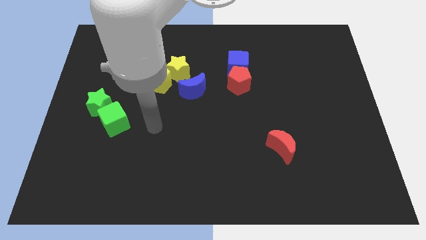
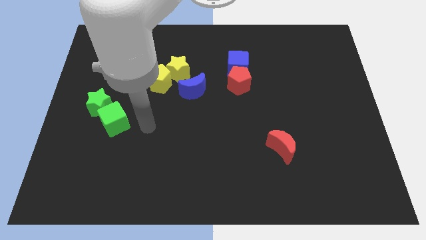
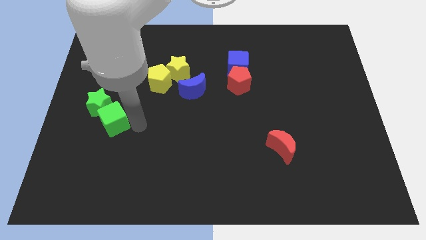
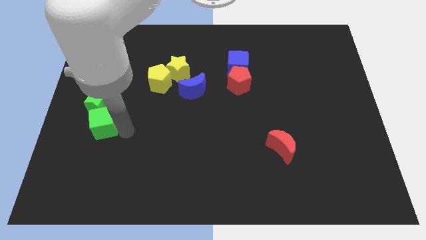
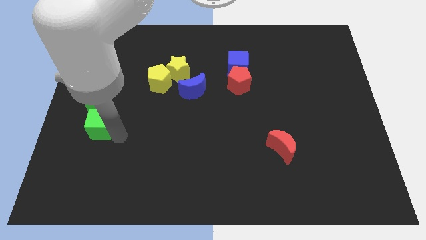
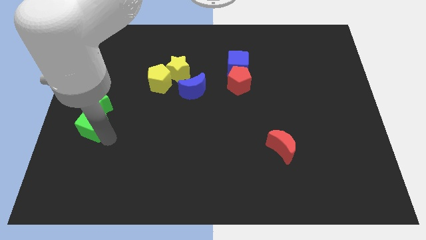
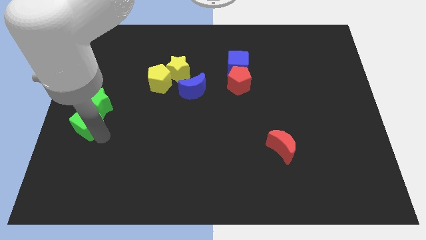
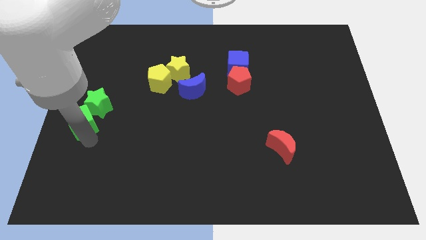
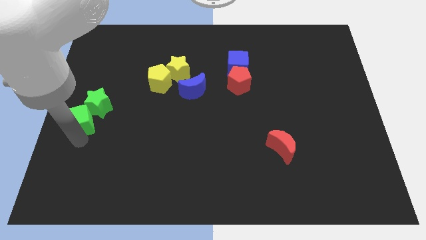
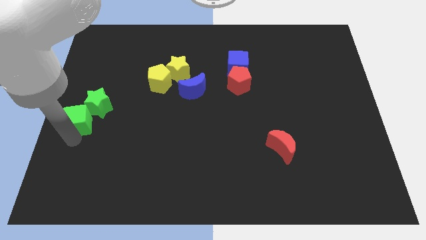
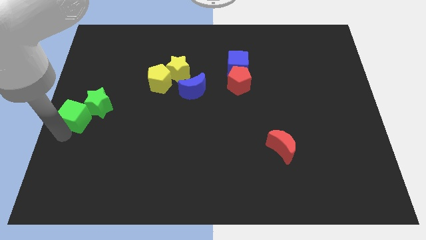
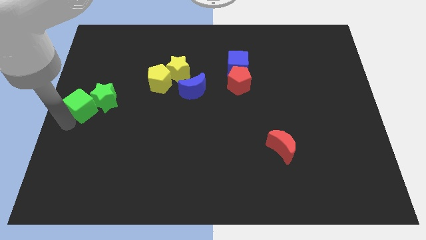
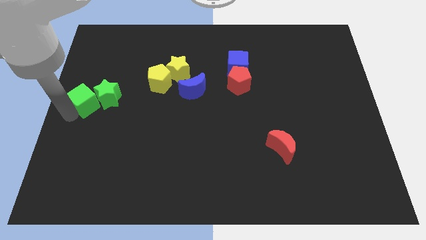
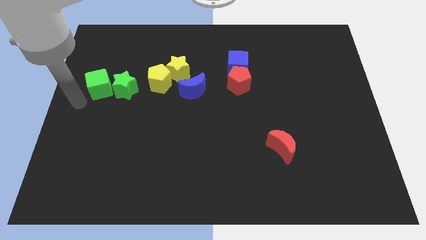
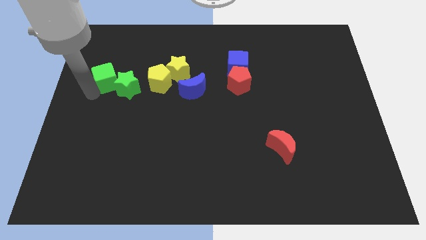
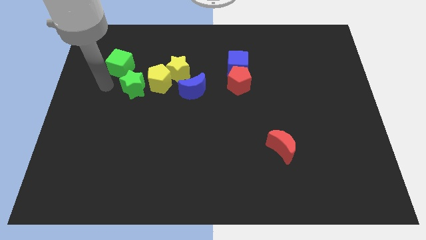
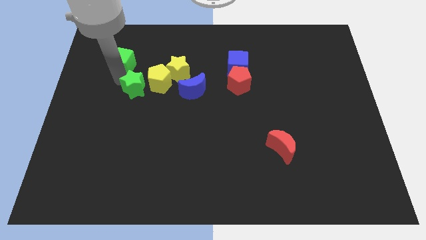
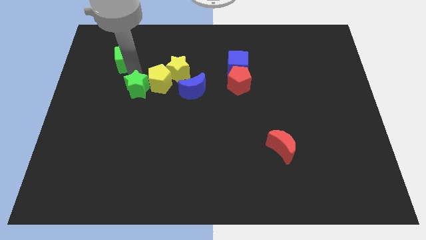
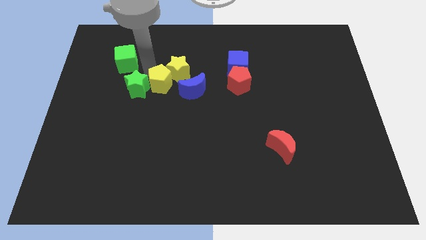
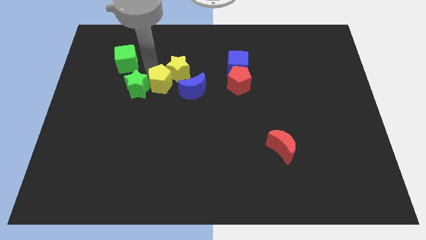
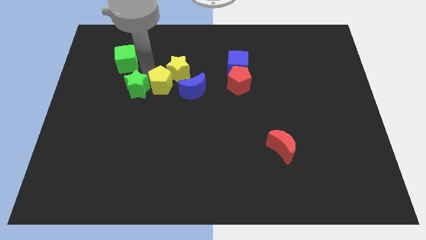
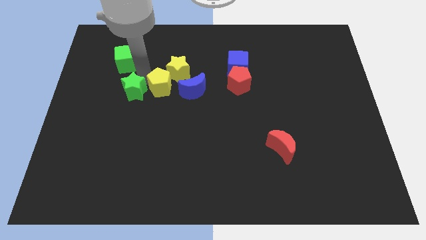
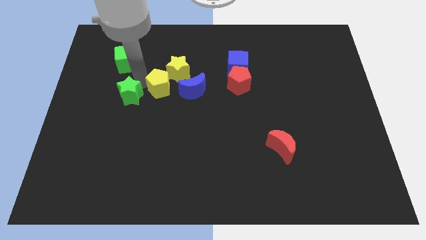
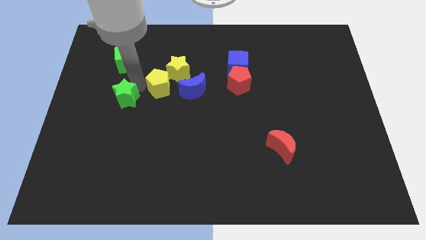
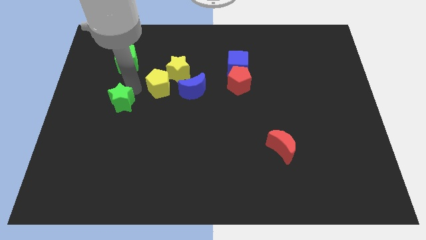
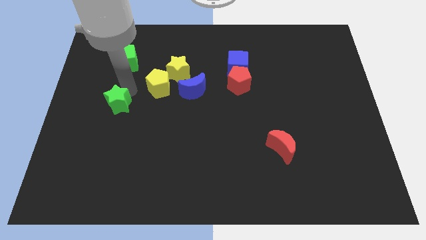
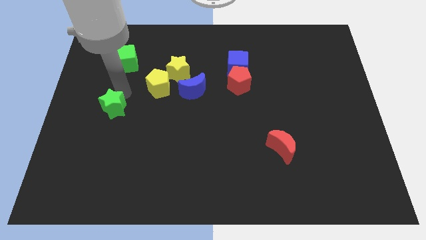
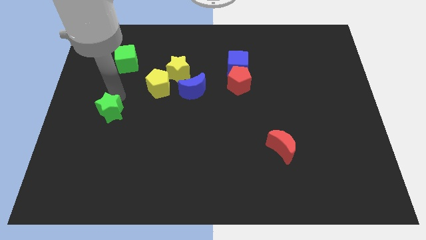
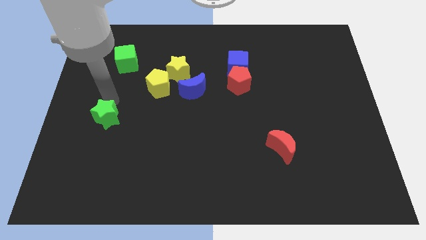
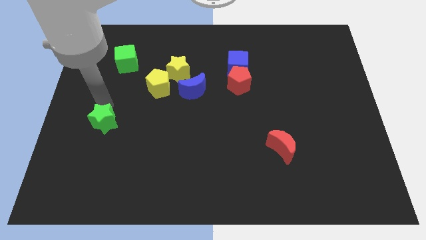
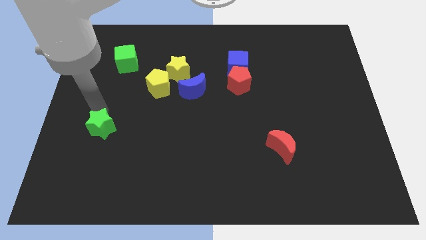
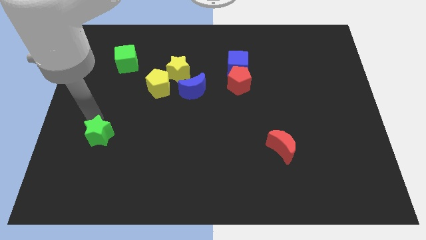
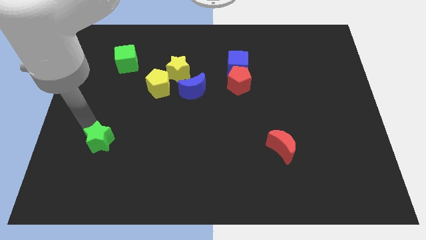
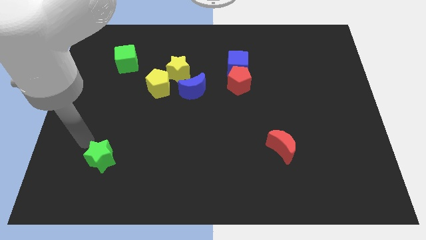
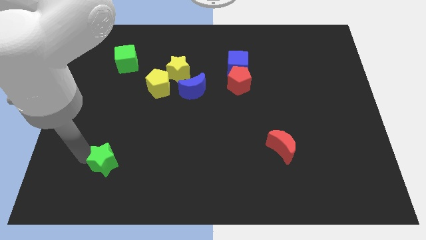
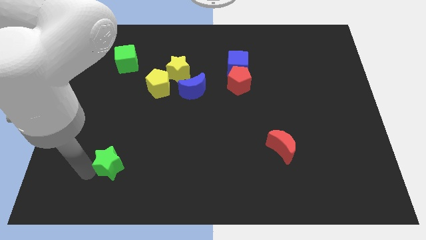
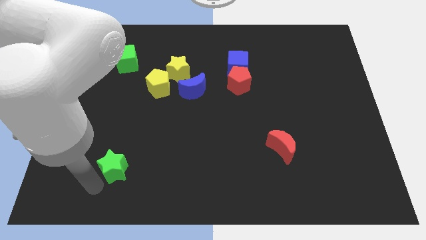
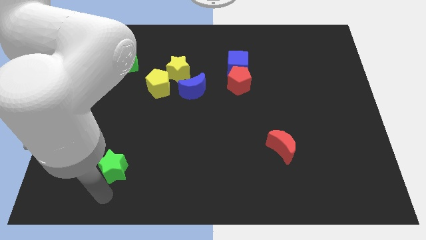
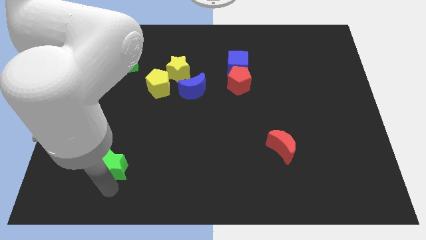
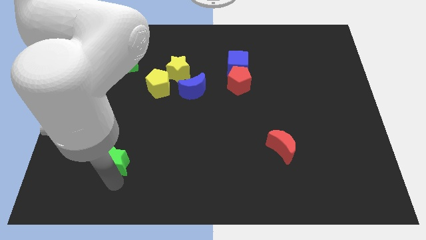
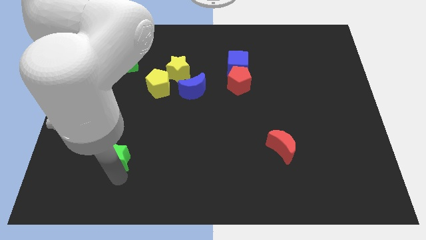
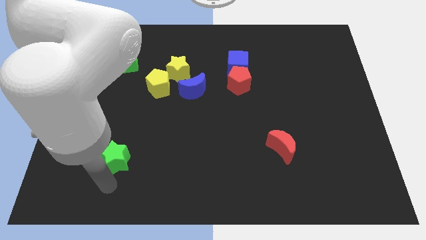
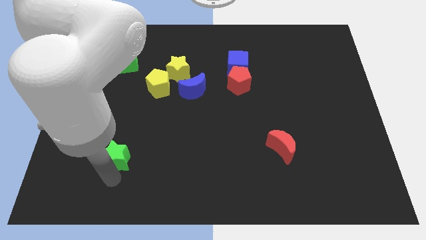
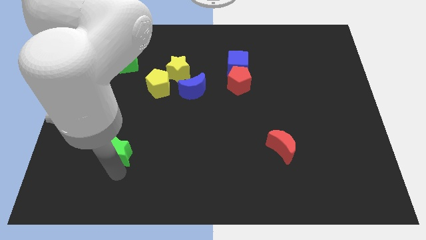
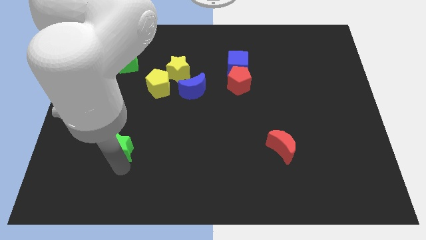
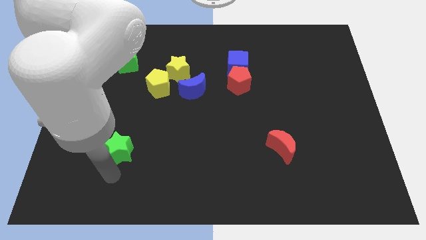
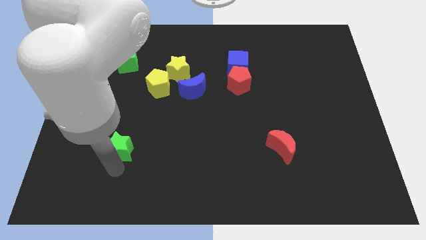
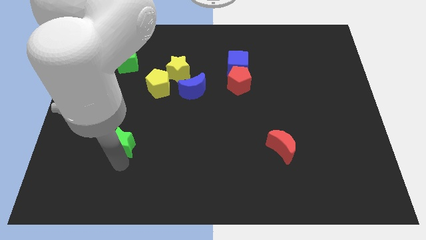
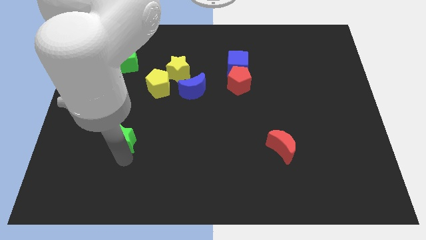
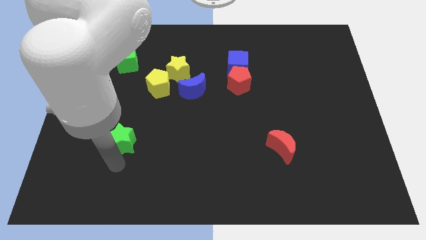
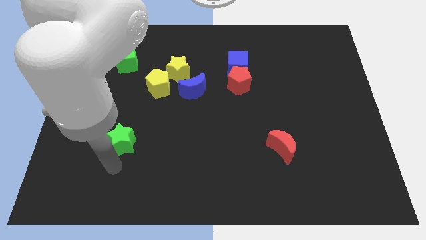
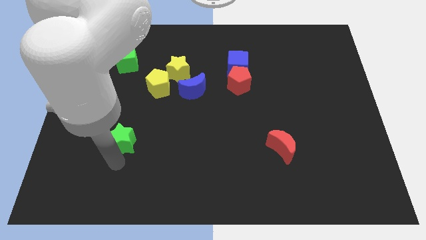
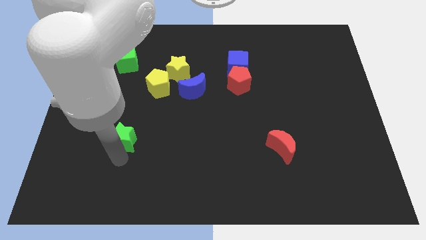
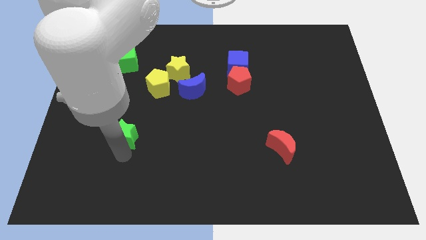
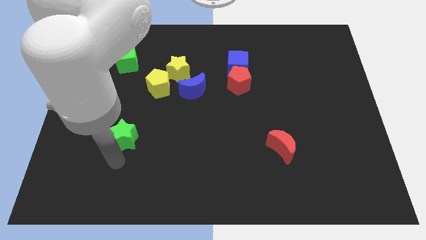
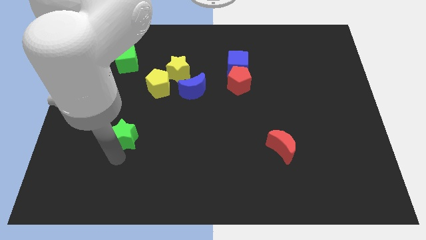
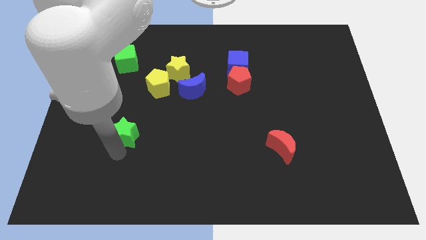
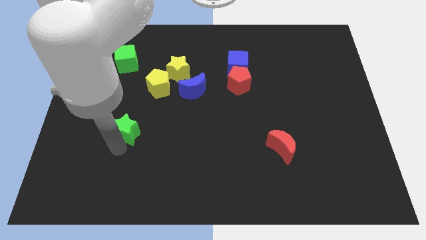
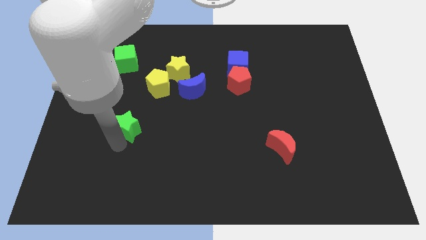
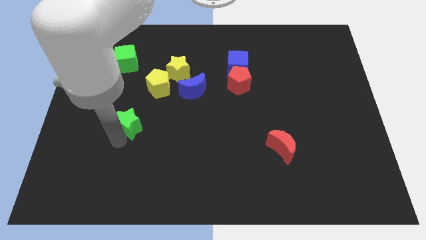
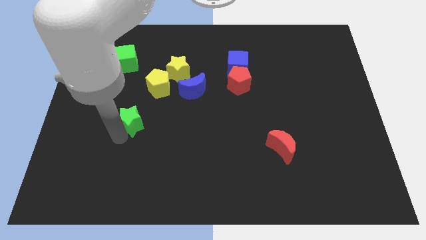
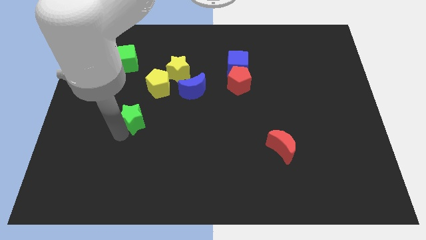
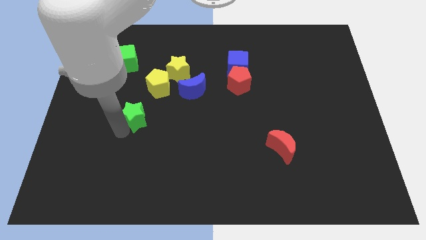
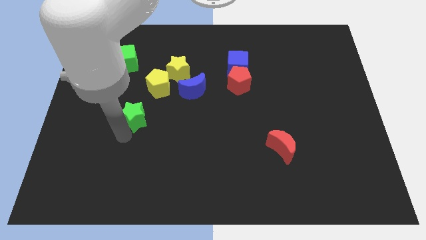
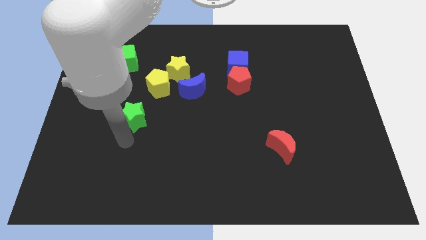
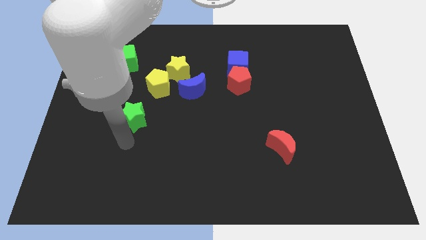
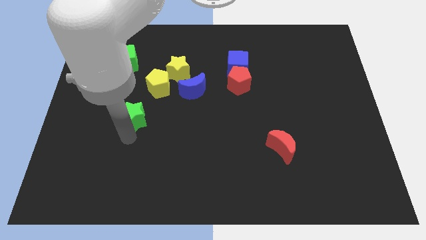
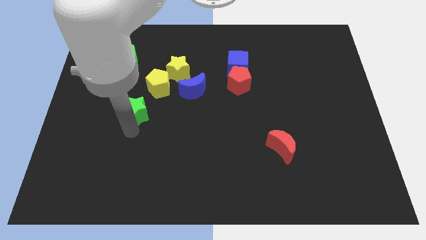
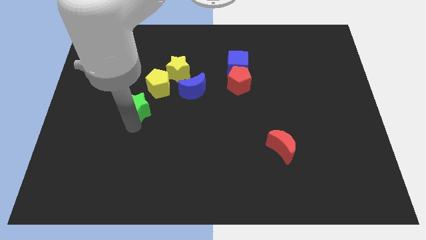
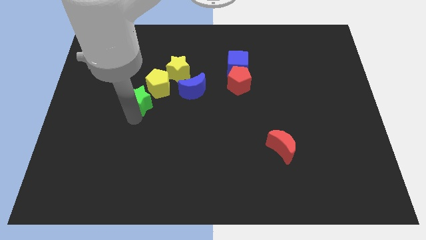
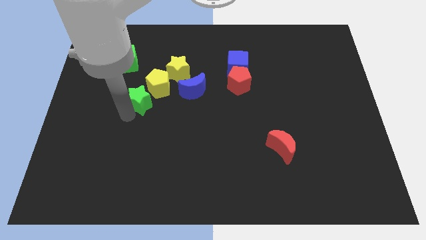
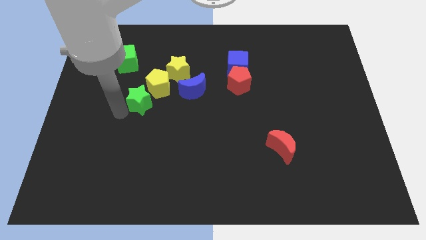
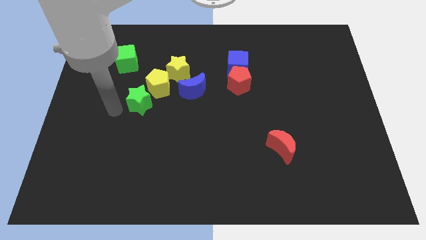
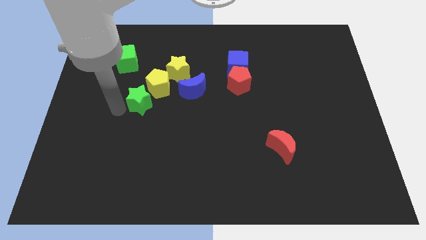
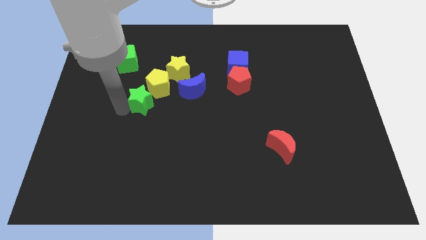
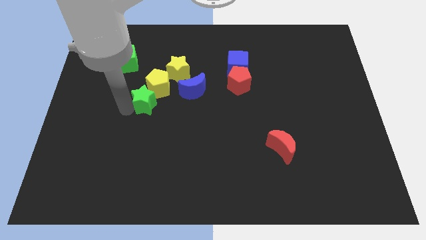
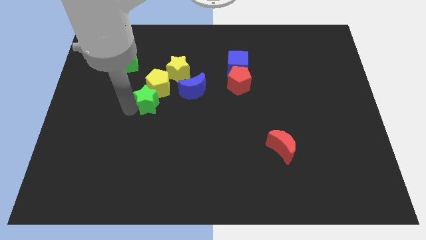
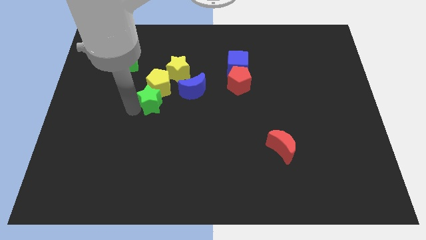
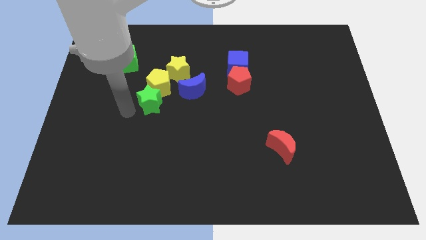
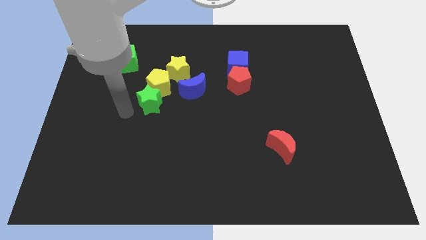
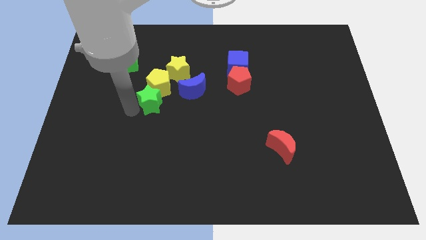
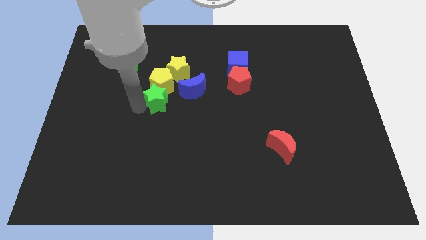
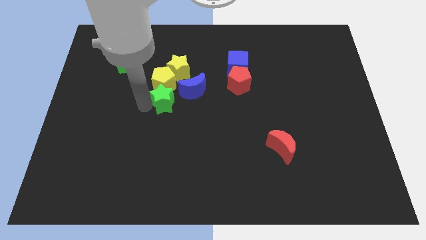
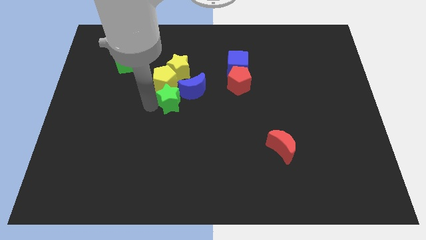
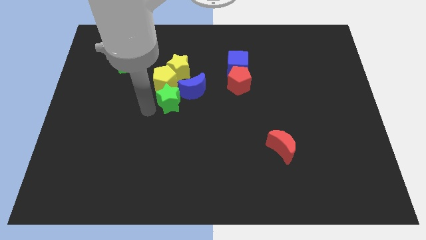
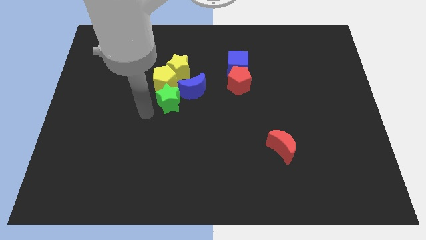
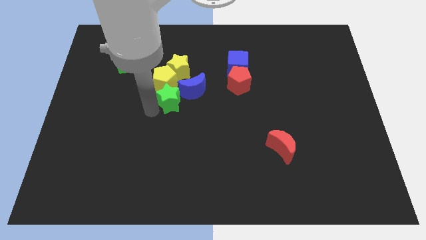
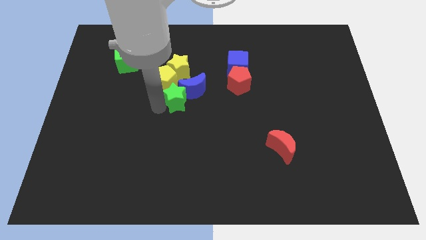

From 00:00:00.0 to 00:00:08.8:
push the green star next to the blue moon
